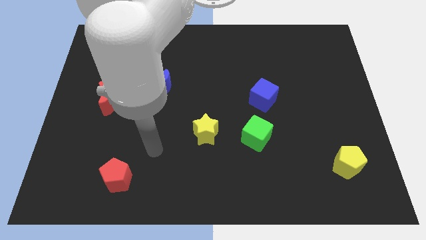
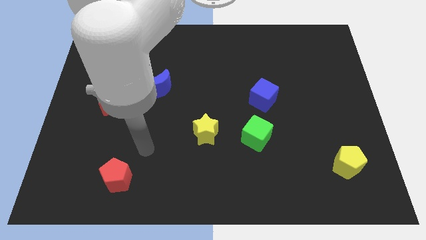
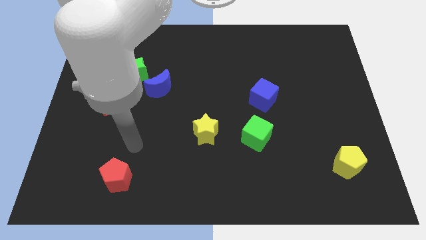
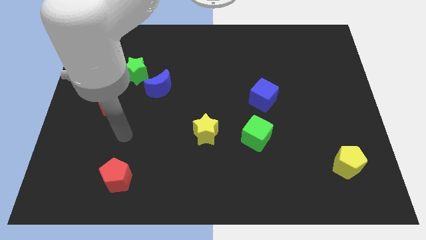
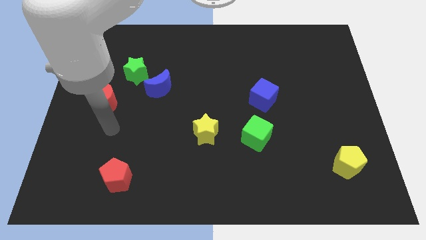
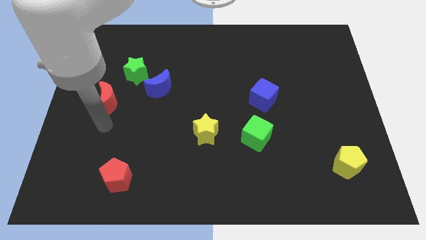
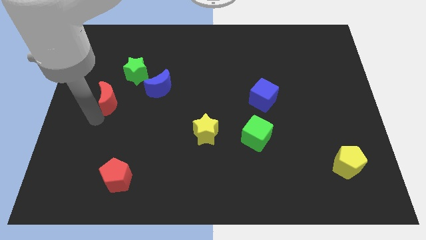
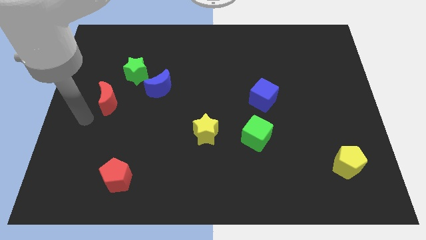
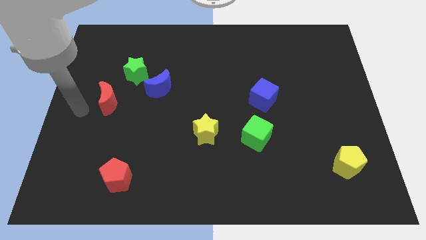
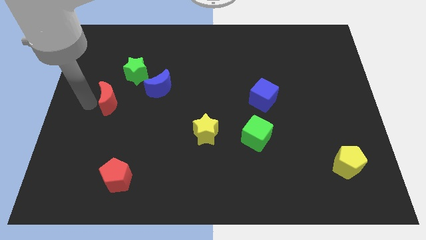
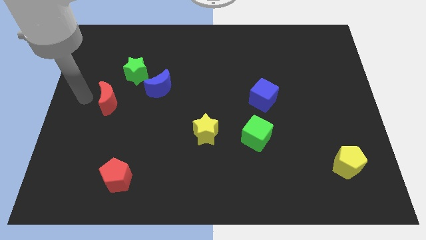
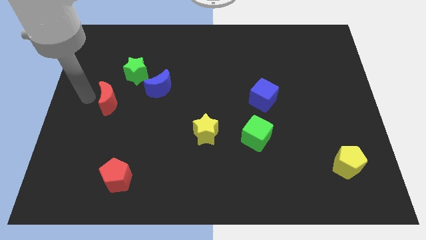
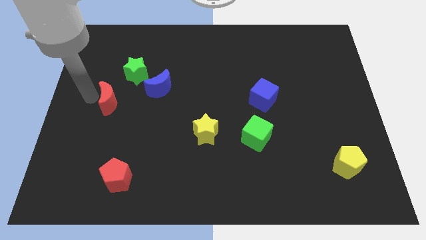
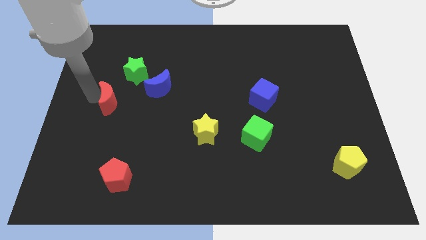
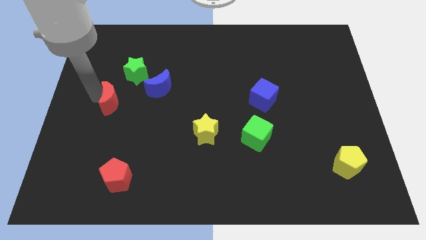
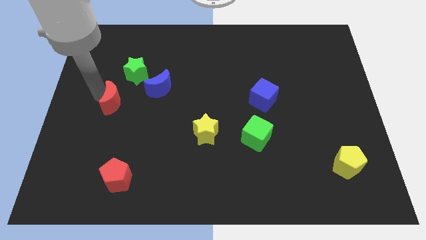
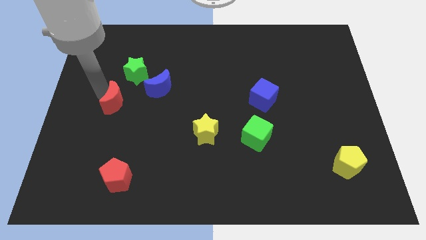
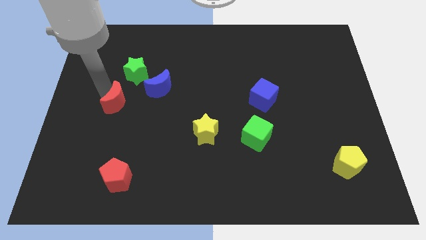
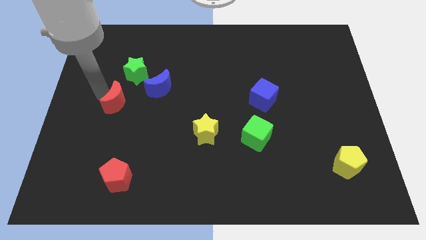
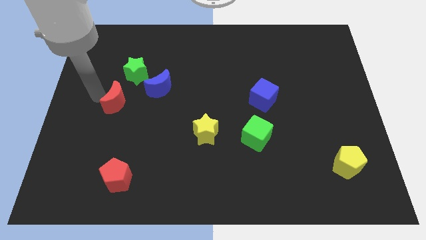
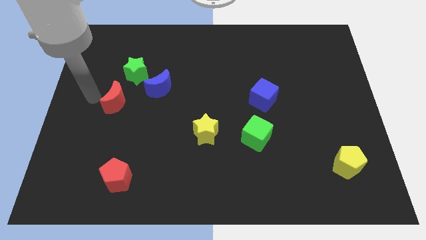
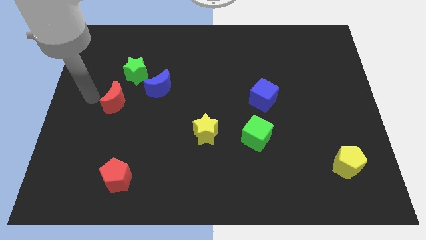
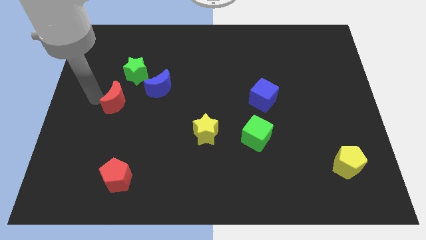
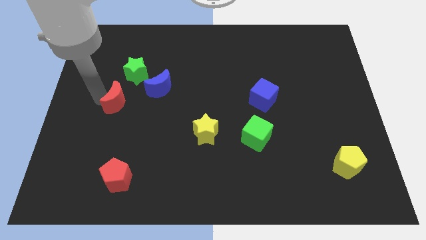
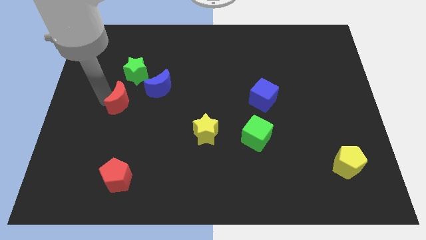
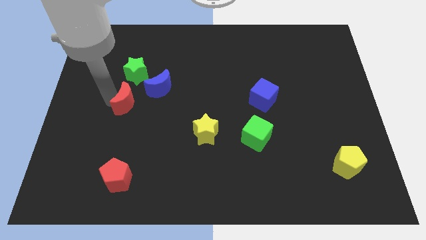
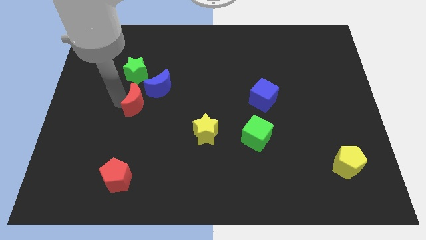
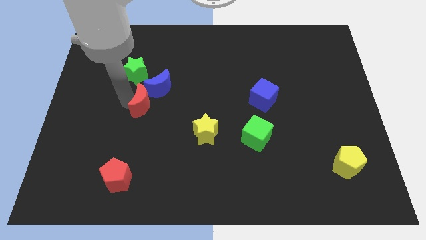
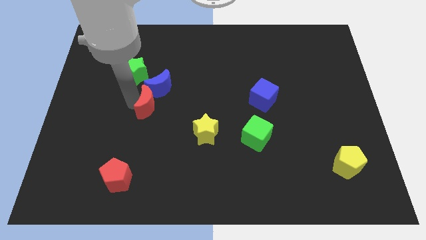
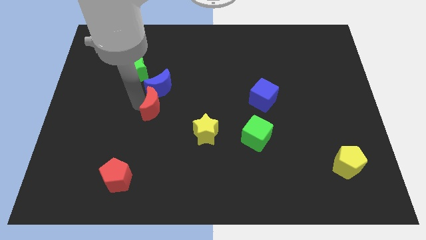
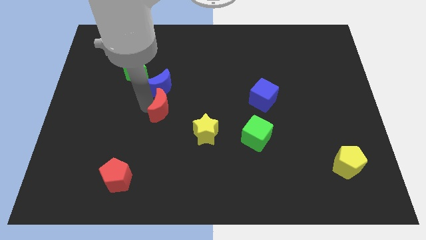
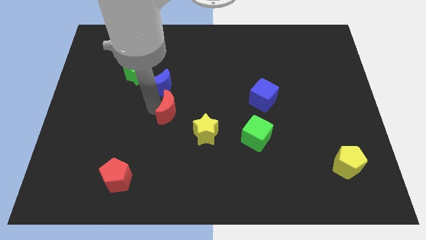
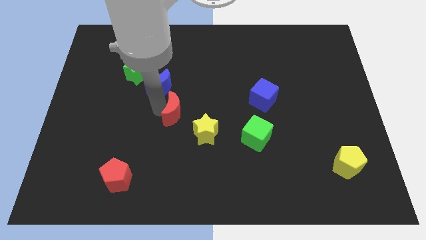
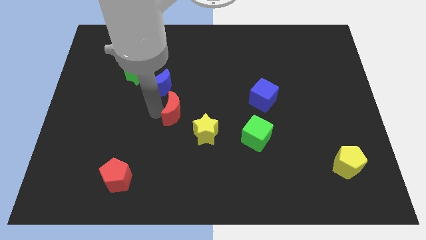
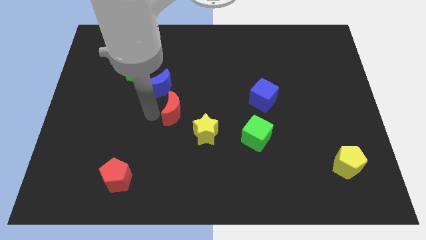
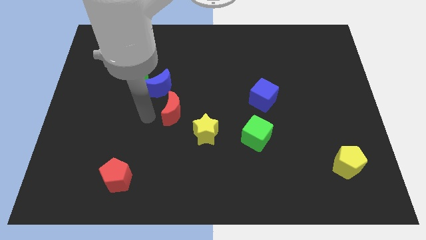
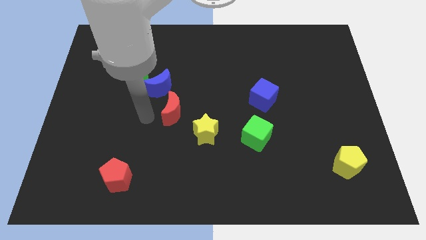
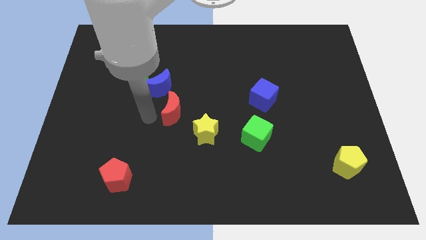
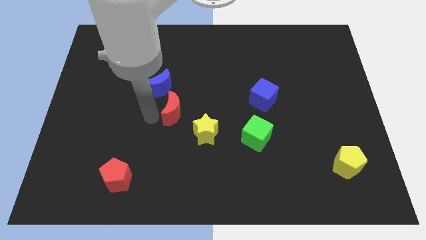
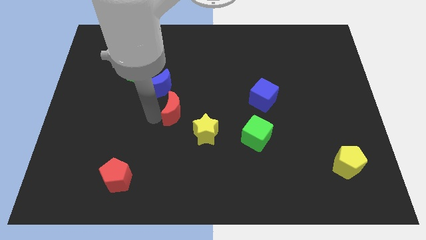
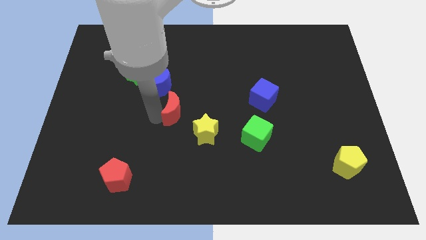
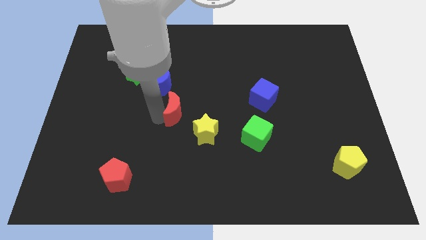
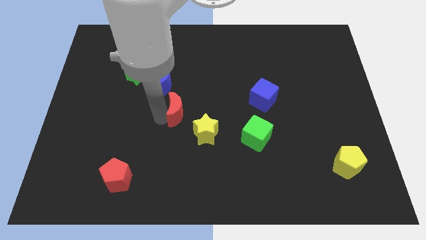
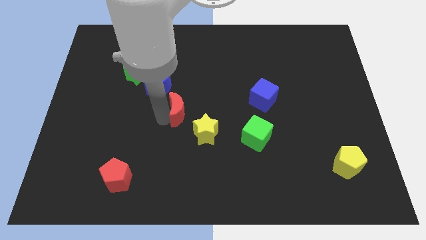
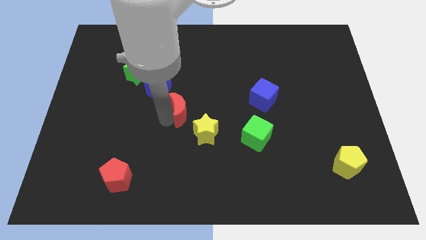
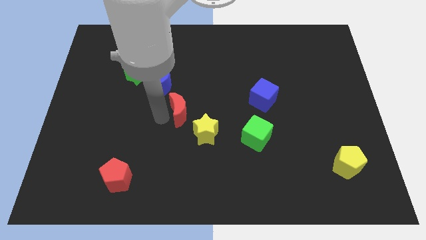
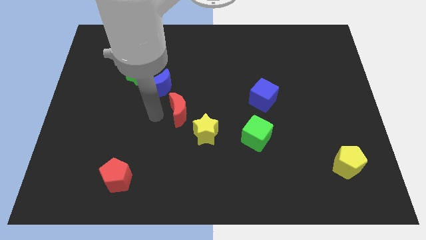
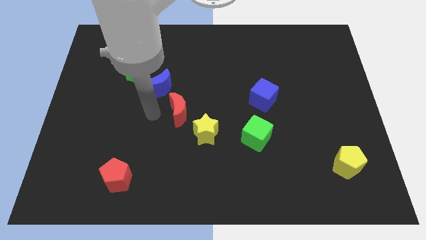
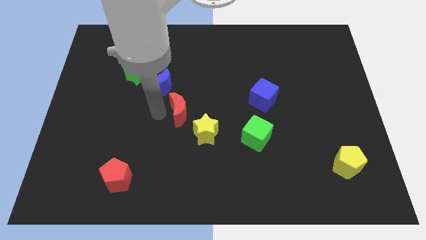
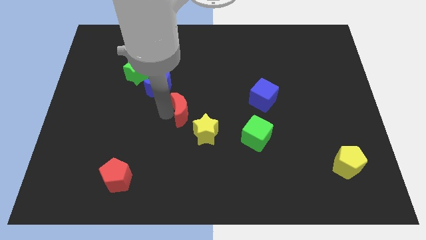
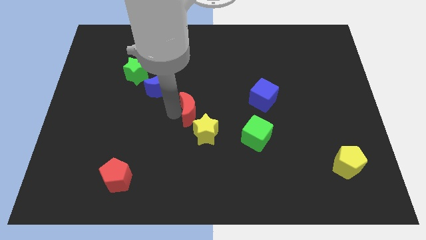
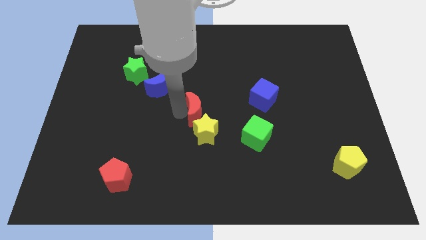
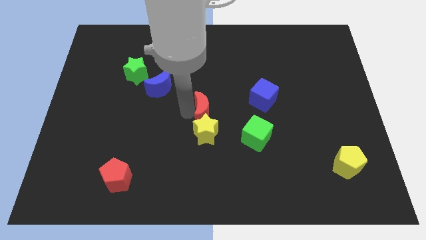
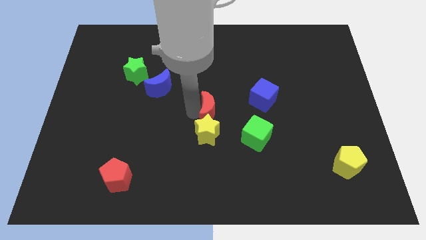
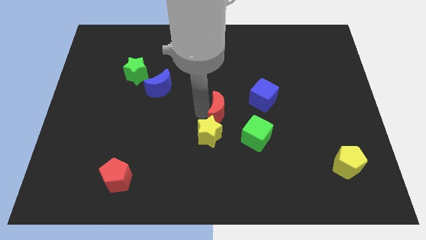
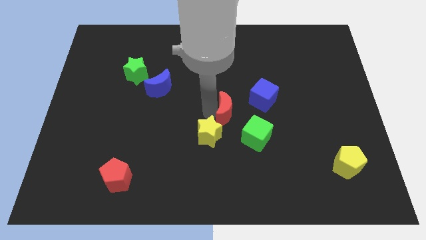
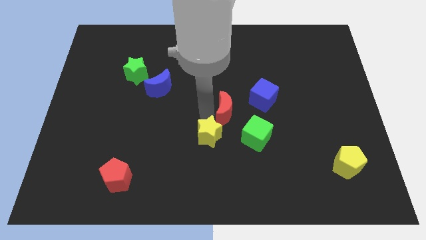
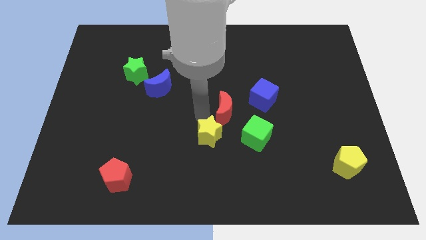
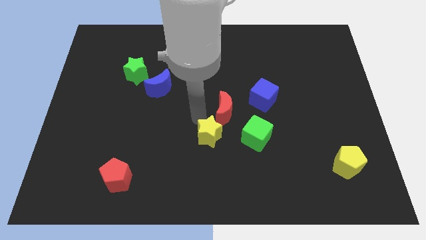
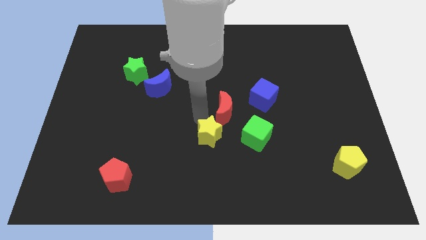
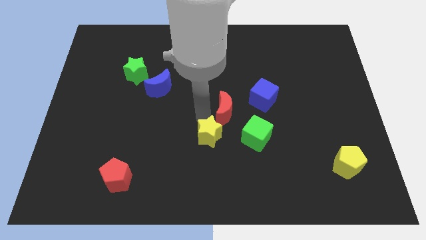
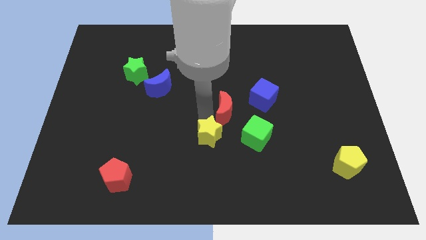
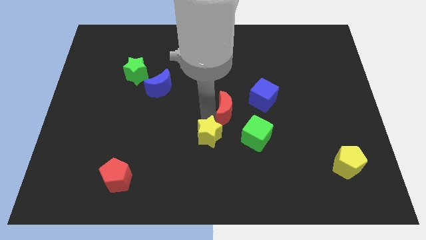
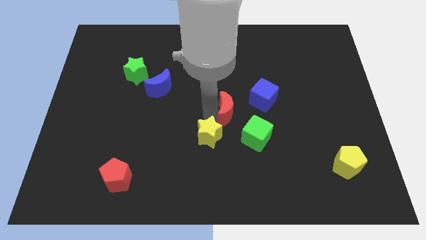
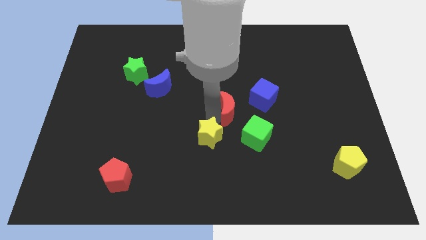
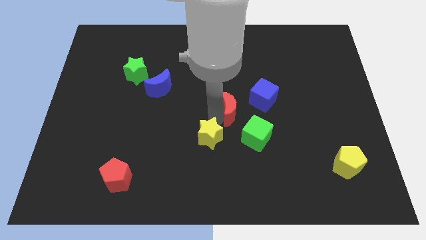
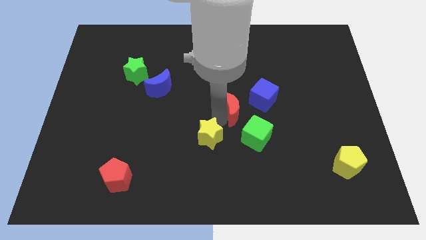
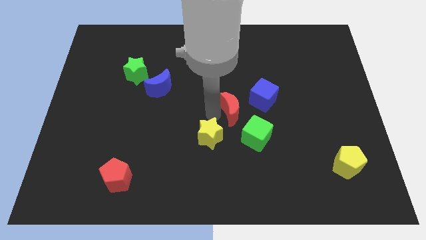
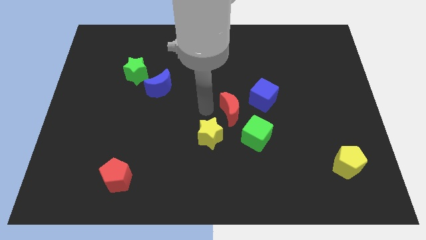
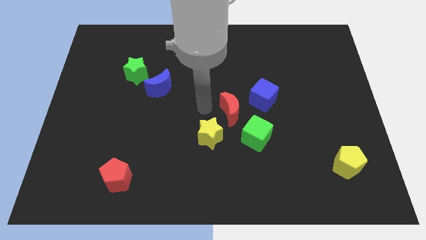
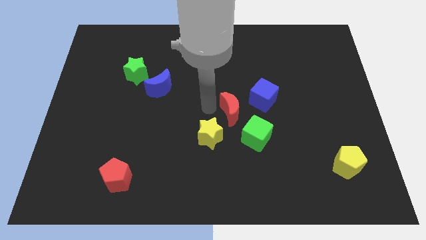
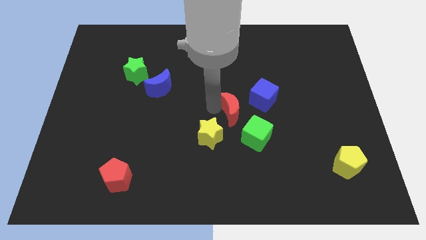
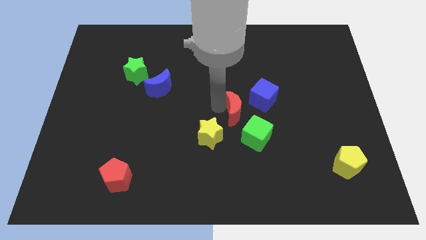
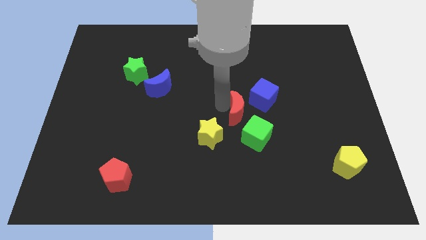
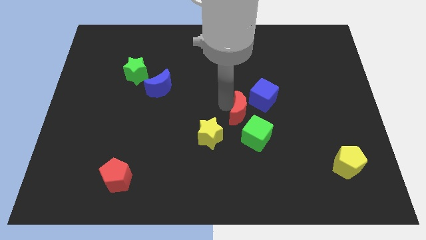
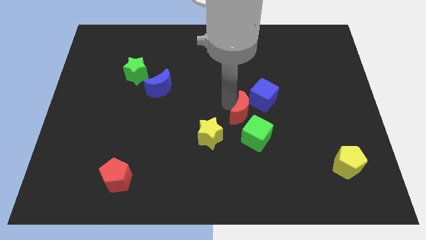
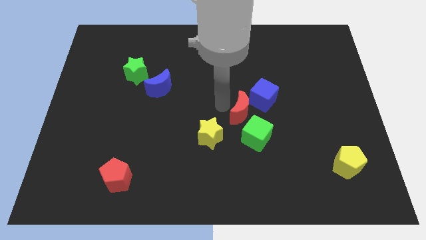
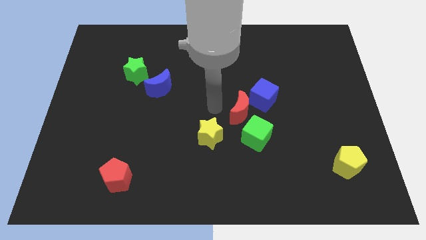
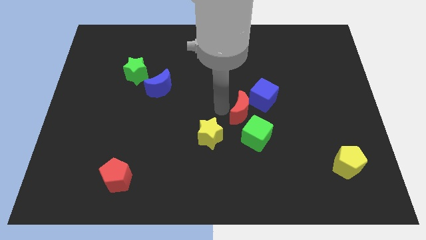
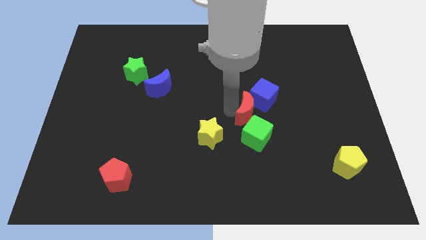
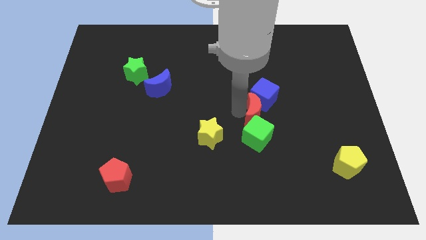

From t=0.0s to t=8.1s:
put the red moon to the top right side of the green cube
